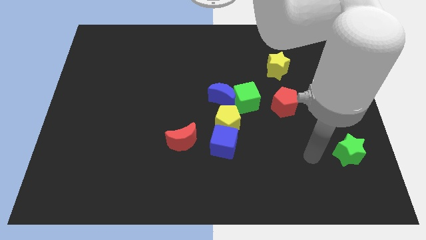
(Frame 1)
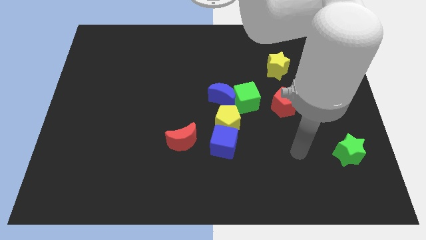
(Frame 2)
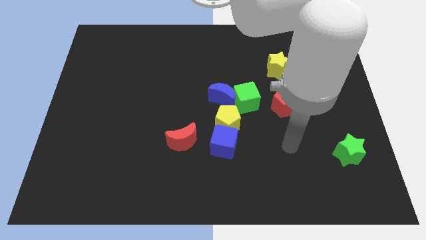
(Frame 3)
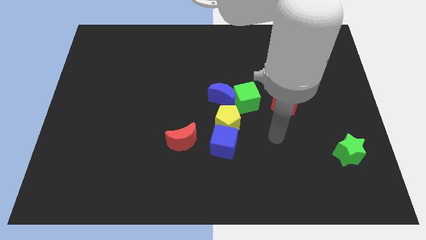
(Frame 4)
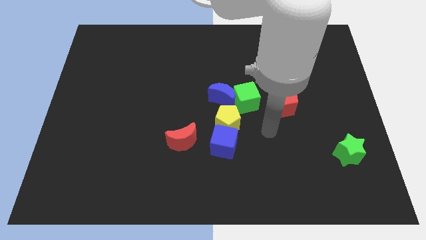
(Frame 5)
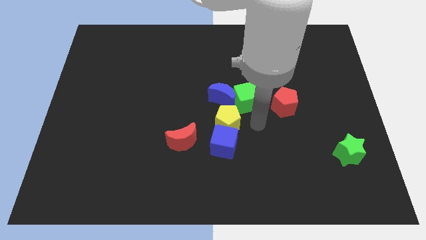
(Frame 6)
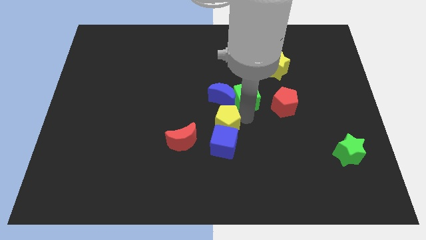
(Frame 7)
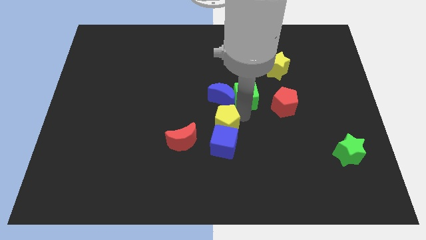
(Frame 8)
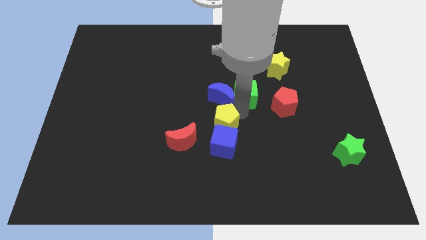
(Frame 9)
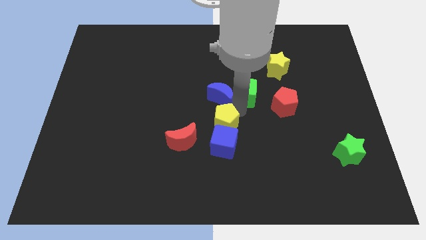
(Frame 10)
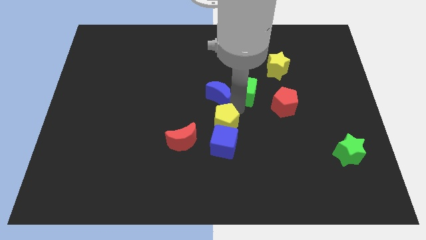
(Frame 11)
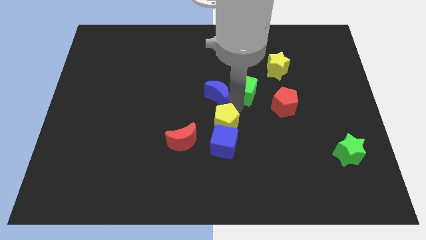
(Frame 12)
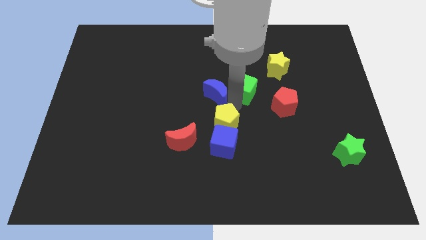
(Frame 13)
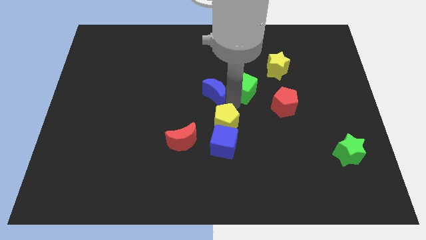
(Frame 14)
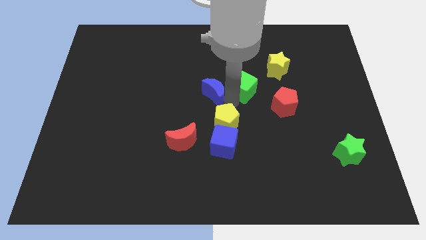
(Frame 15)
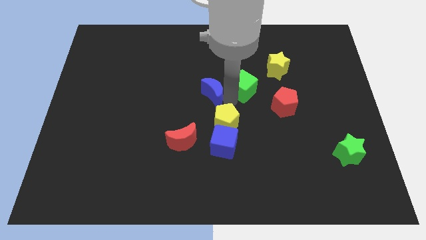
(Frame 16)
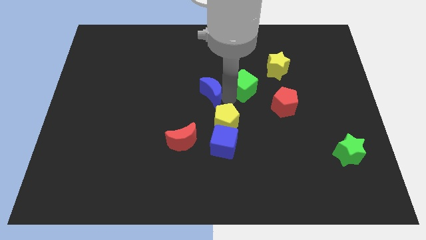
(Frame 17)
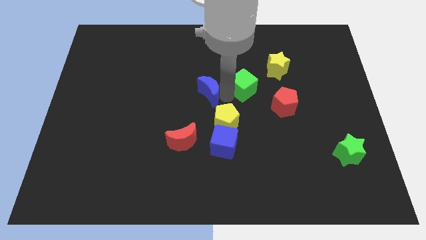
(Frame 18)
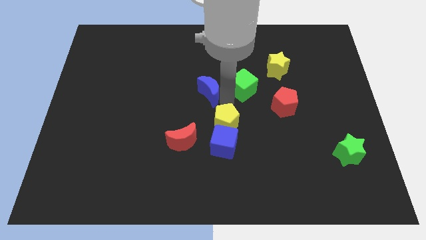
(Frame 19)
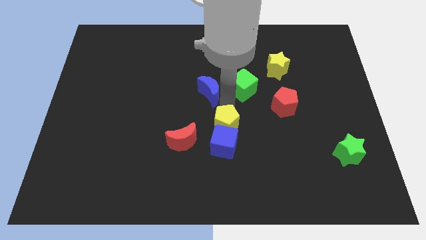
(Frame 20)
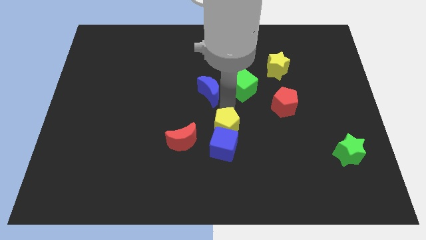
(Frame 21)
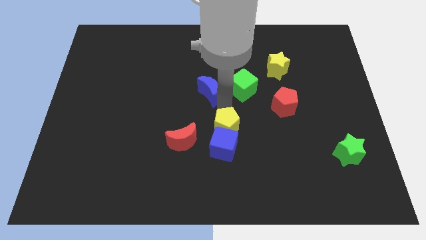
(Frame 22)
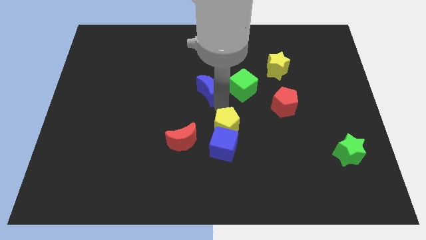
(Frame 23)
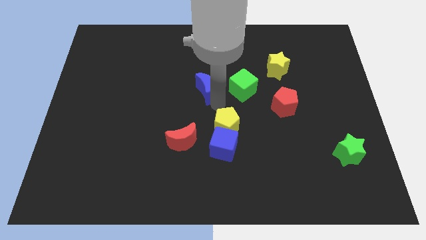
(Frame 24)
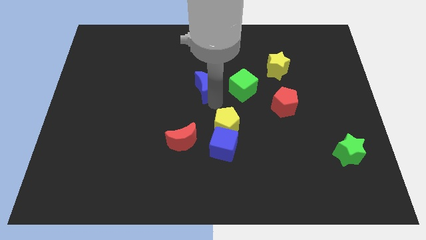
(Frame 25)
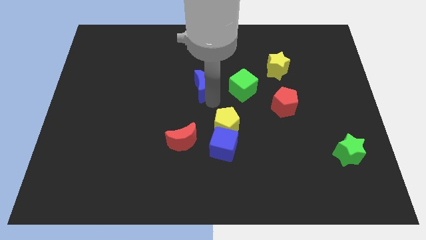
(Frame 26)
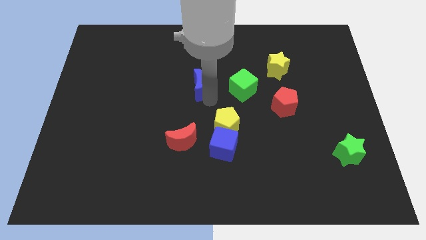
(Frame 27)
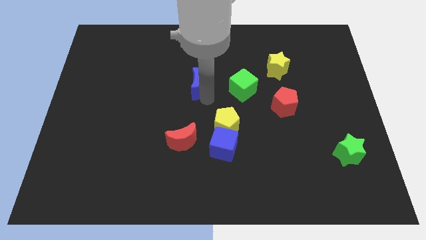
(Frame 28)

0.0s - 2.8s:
slide the blue moon somewhat diagonally upwards and to the left

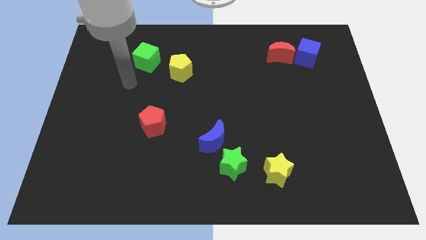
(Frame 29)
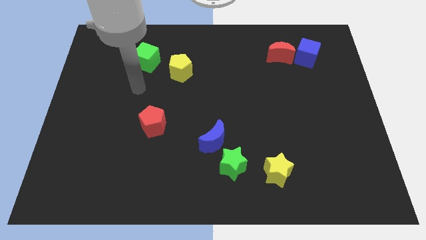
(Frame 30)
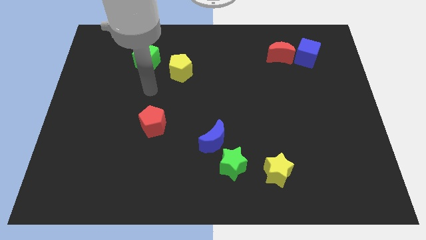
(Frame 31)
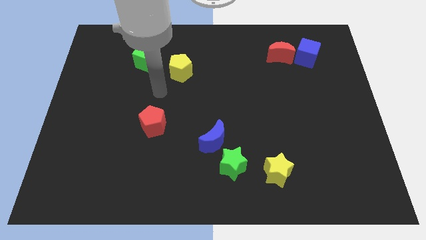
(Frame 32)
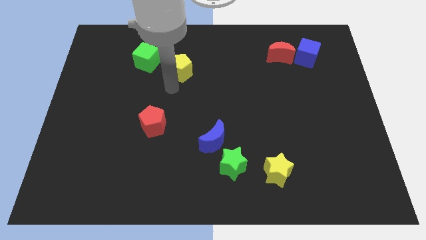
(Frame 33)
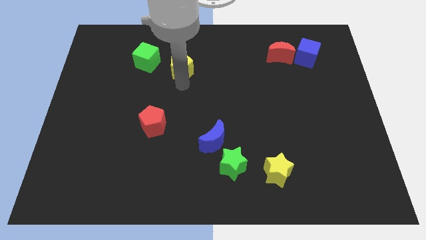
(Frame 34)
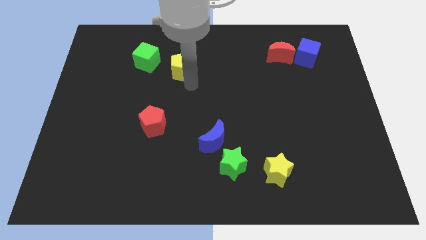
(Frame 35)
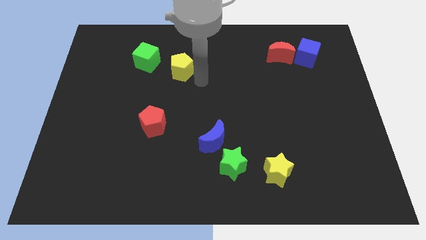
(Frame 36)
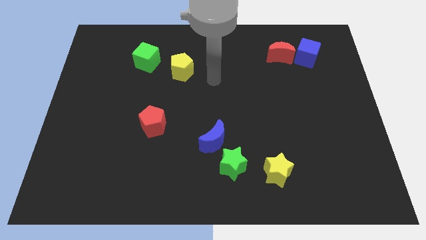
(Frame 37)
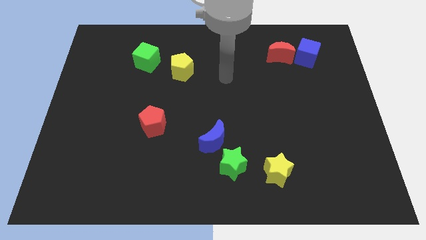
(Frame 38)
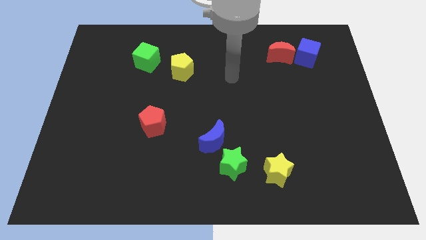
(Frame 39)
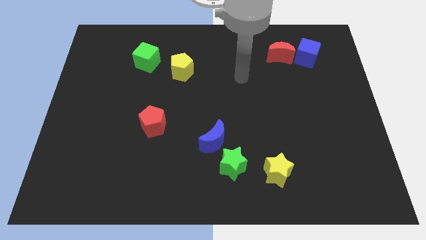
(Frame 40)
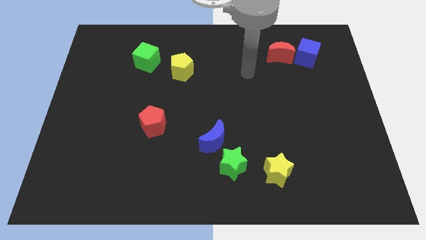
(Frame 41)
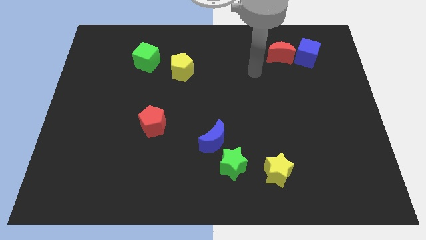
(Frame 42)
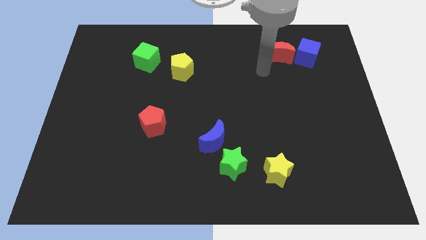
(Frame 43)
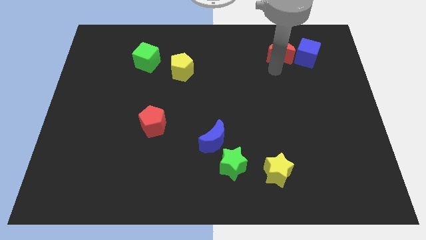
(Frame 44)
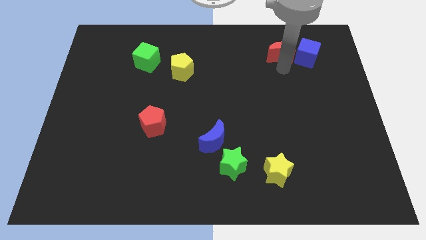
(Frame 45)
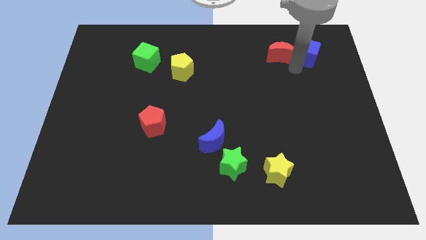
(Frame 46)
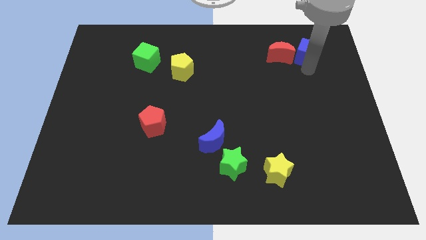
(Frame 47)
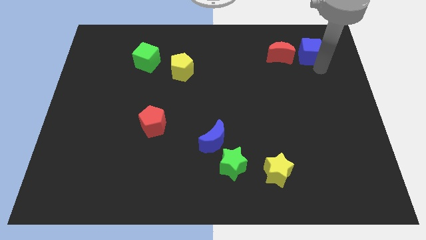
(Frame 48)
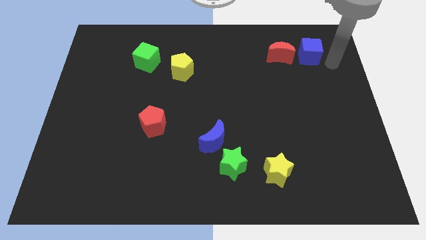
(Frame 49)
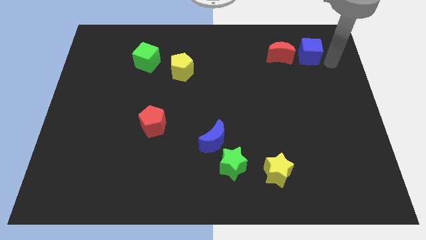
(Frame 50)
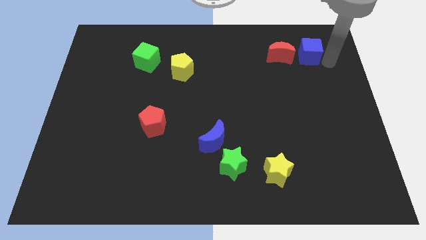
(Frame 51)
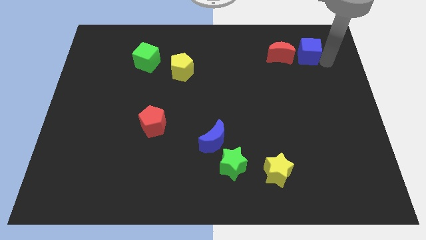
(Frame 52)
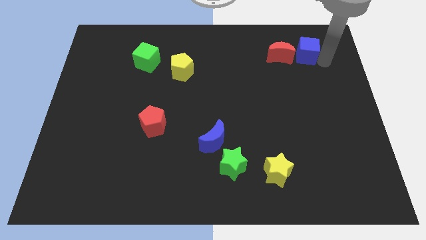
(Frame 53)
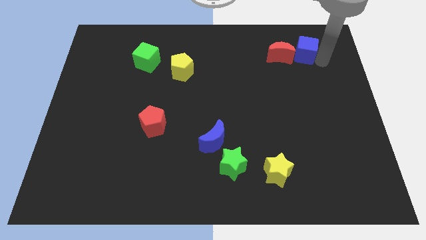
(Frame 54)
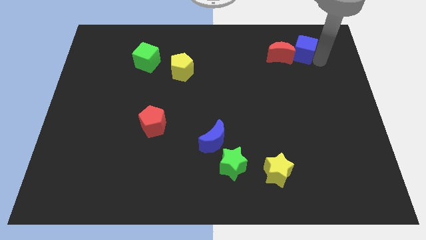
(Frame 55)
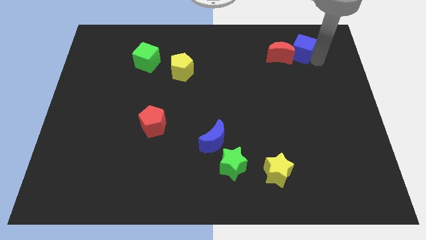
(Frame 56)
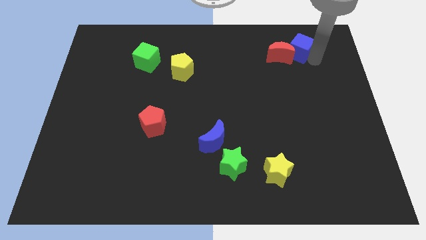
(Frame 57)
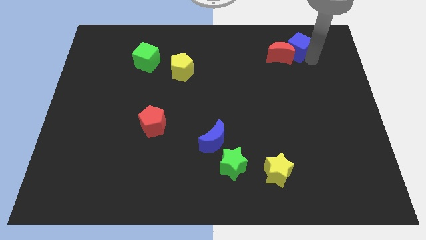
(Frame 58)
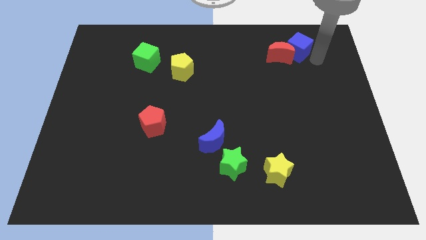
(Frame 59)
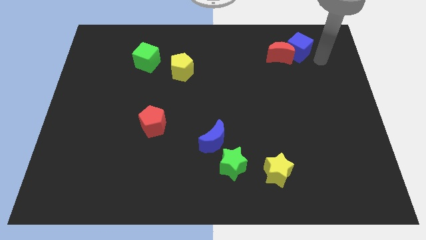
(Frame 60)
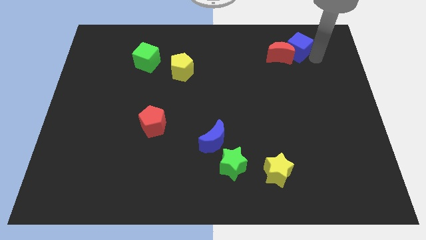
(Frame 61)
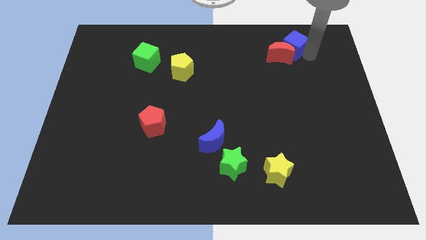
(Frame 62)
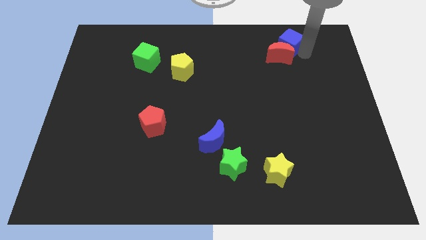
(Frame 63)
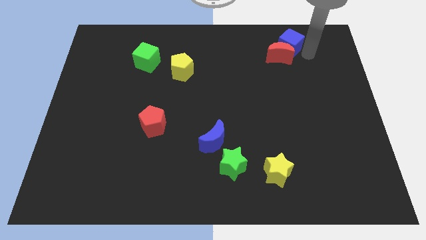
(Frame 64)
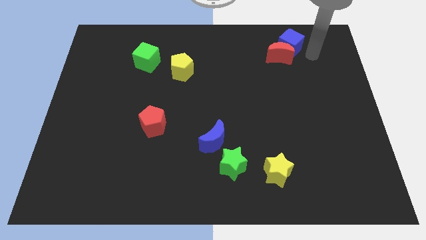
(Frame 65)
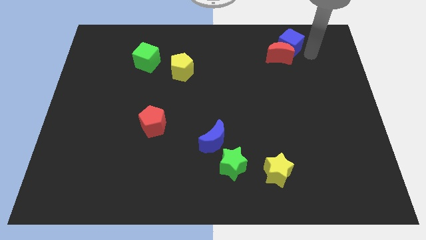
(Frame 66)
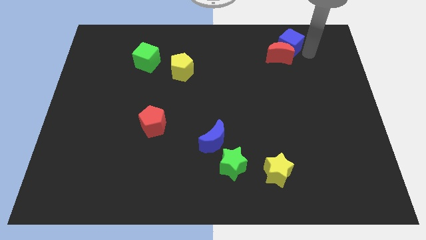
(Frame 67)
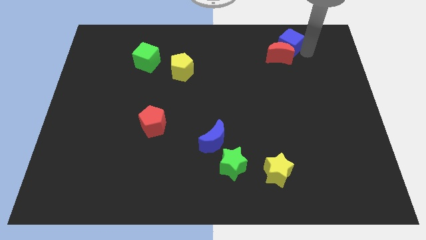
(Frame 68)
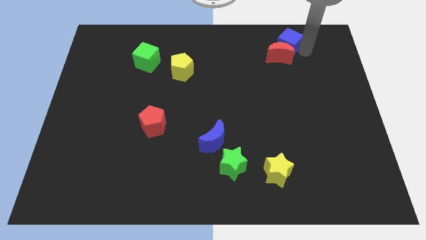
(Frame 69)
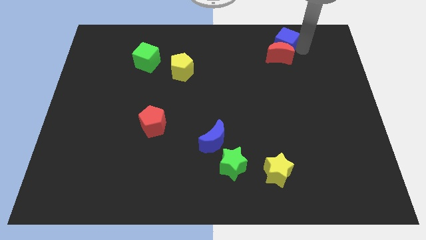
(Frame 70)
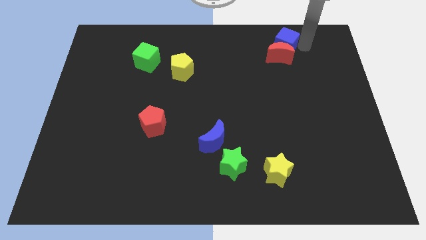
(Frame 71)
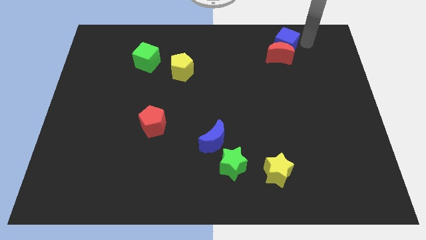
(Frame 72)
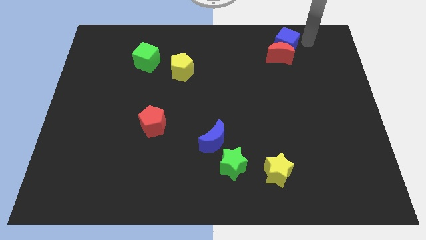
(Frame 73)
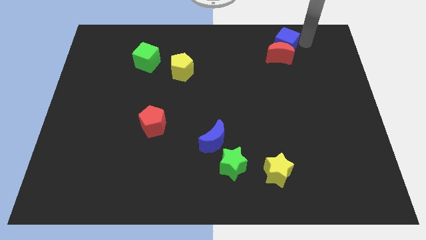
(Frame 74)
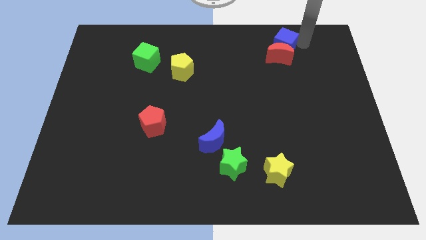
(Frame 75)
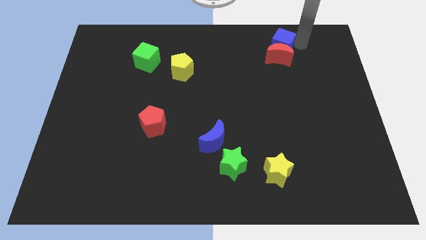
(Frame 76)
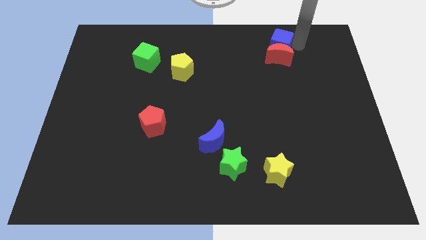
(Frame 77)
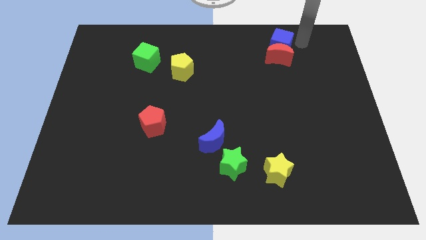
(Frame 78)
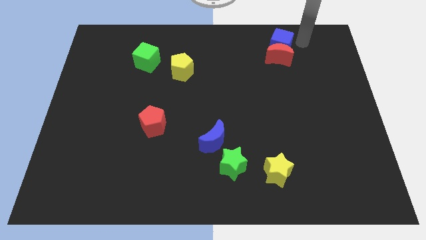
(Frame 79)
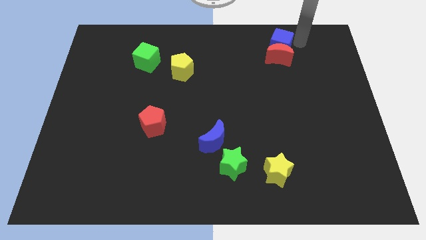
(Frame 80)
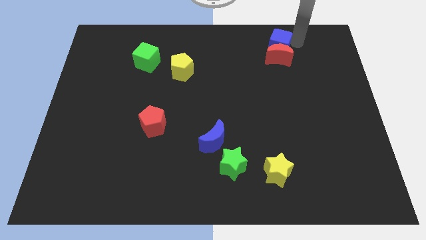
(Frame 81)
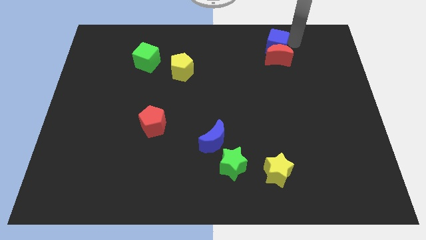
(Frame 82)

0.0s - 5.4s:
move the blue cube a little left
